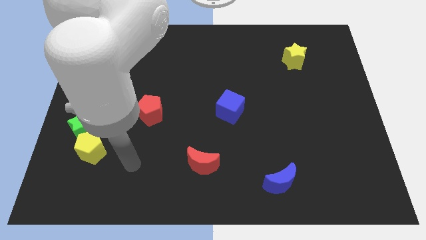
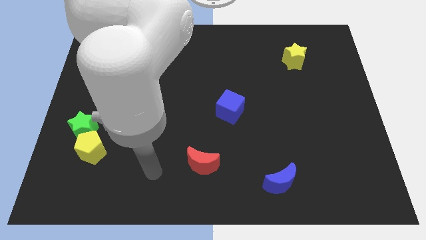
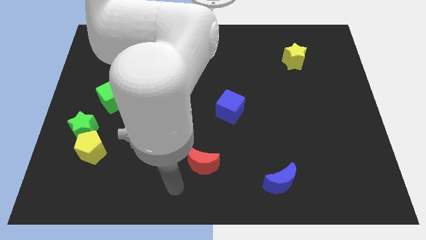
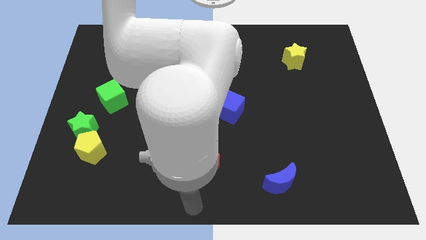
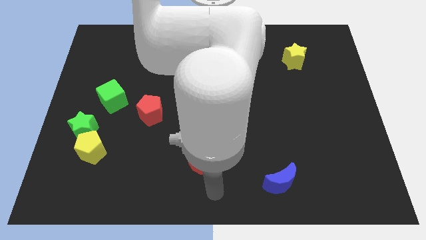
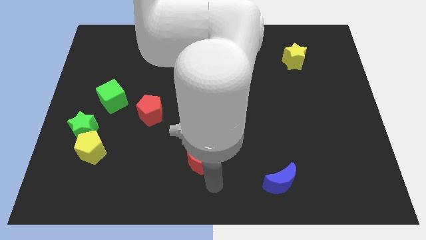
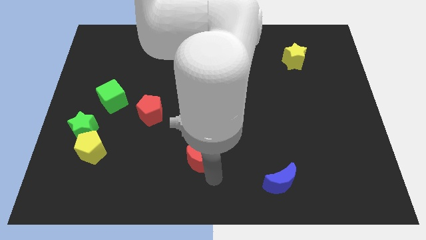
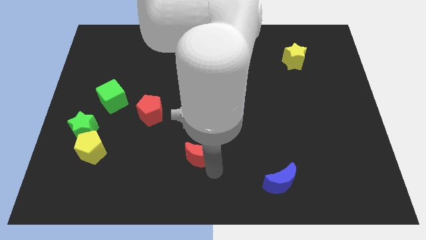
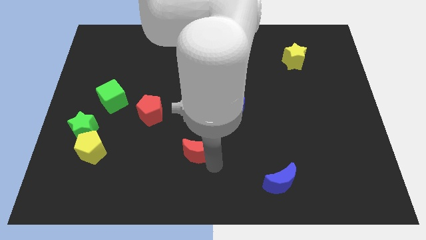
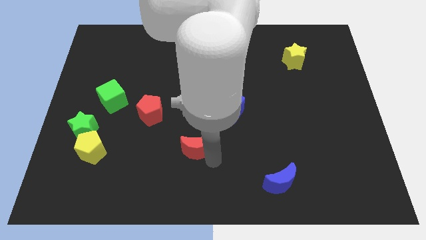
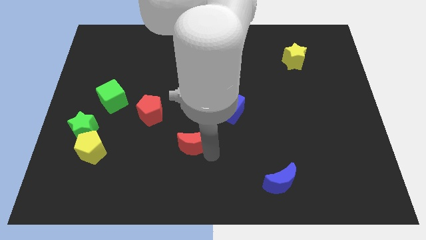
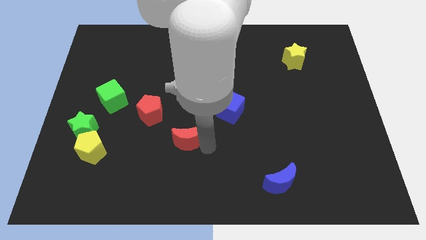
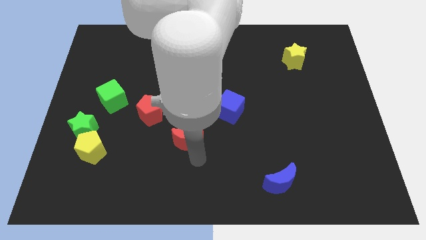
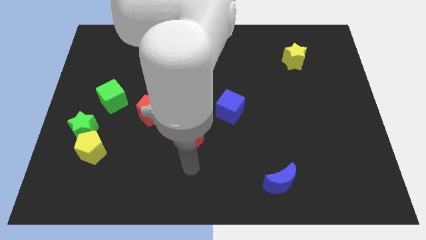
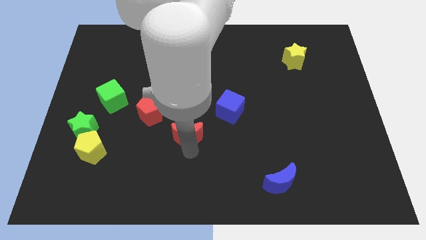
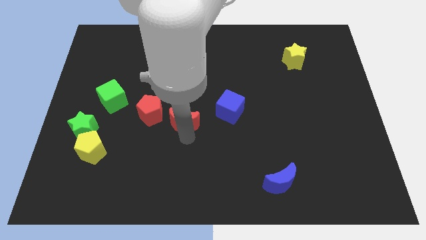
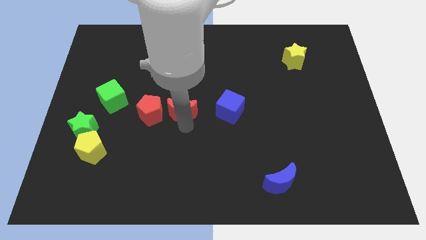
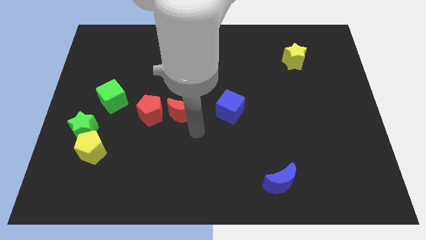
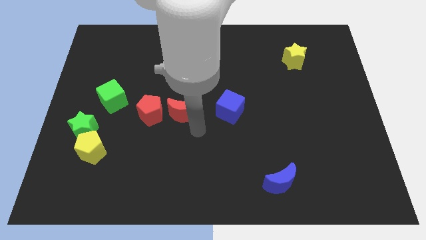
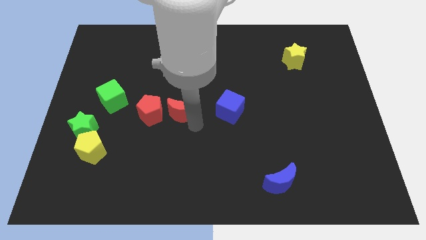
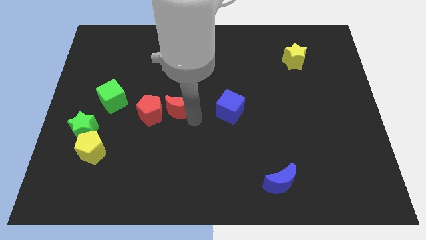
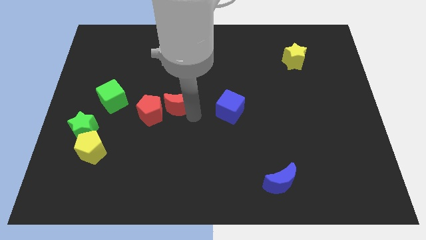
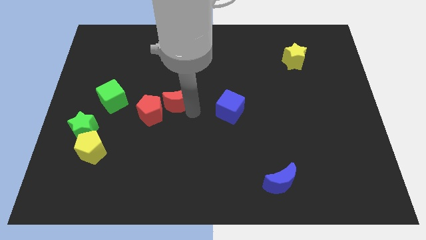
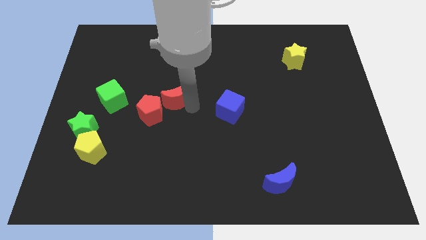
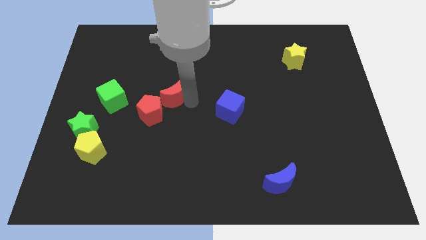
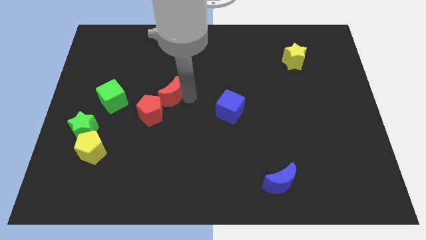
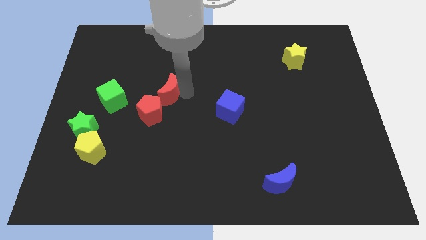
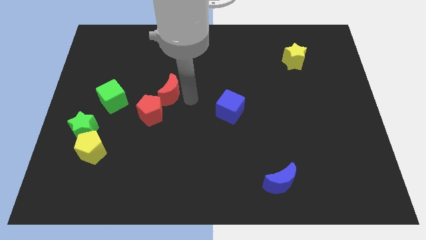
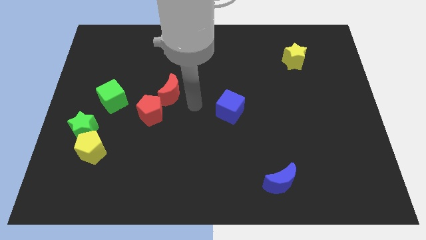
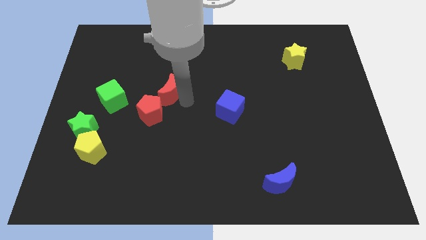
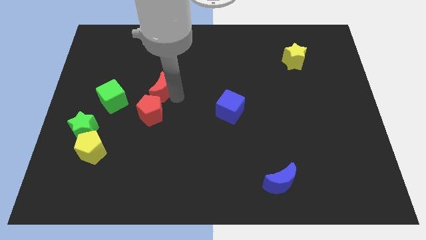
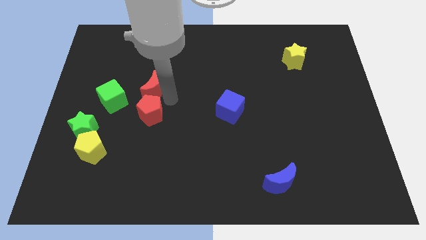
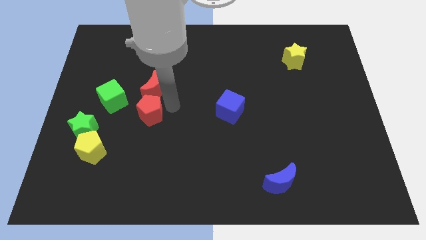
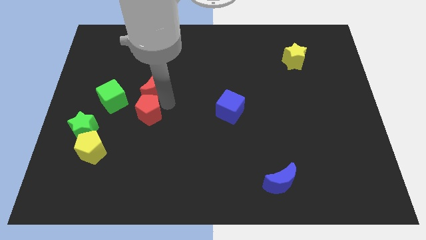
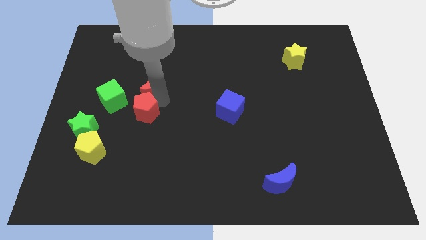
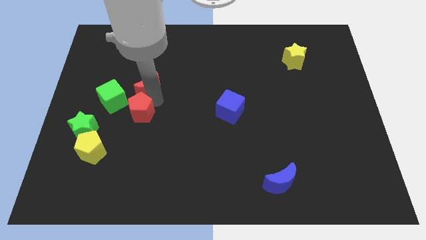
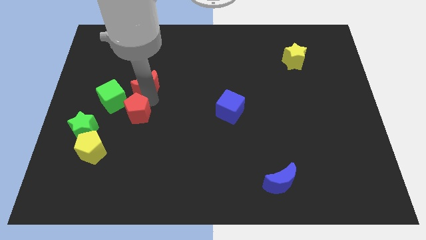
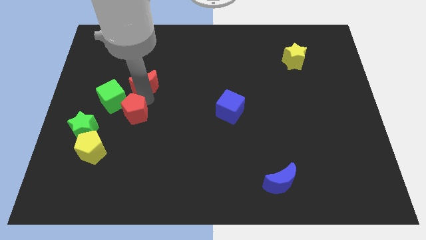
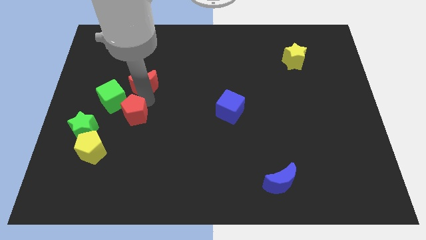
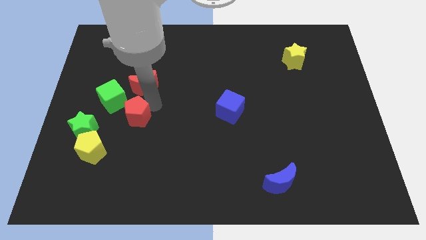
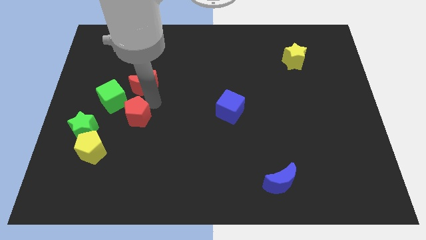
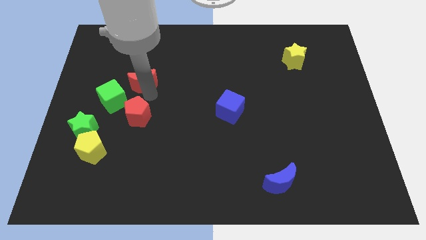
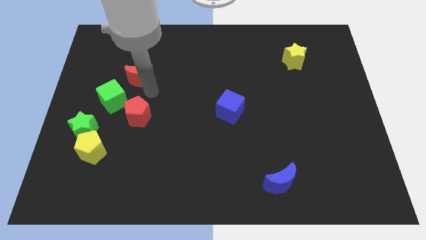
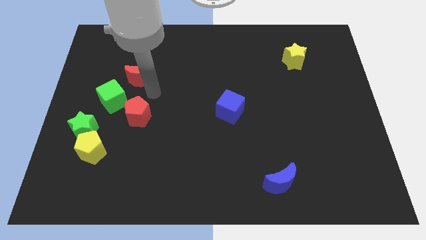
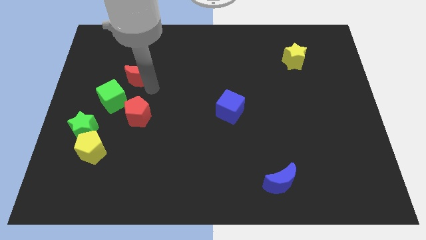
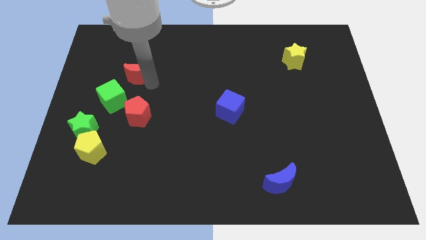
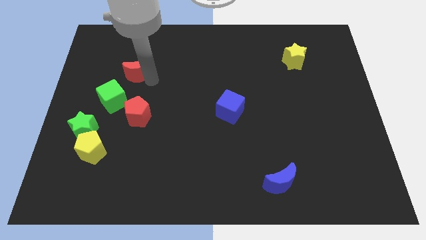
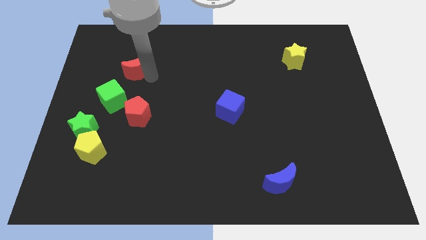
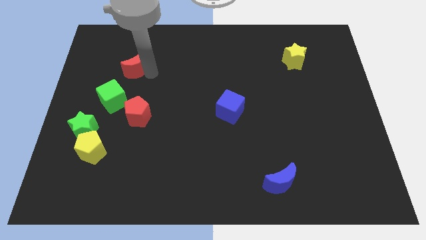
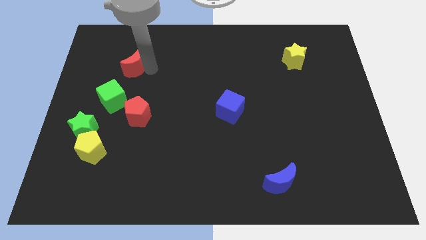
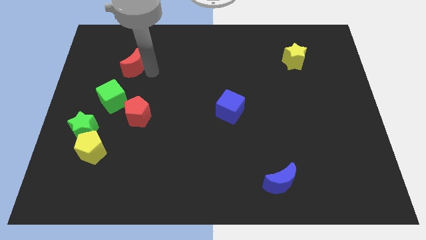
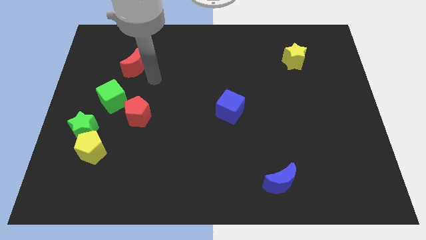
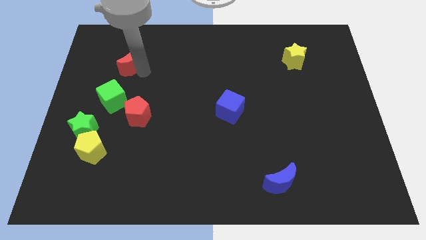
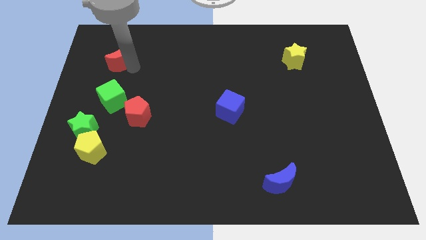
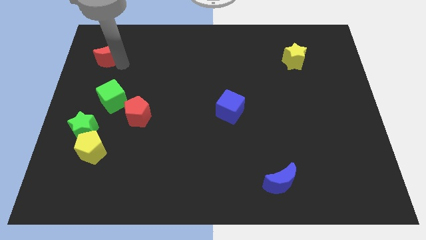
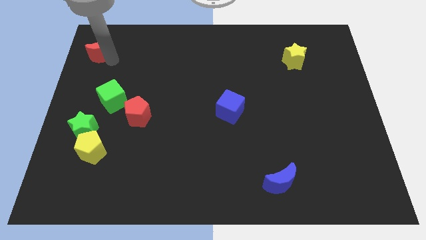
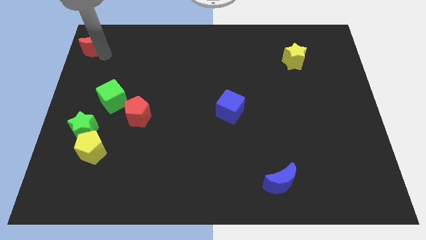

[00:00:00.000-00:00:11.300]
push the red moon to the upper left corner

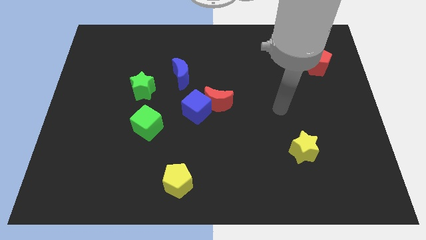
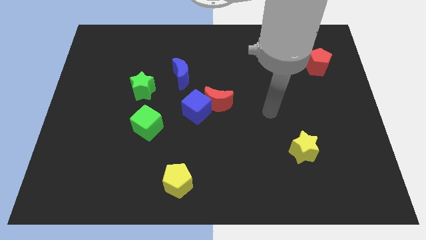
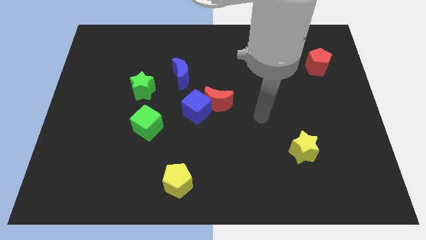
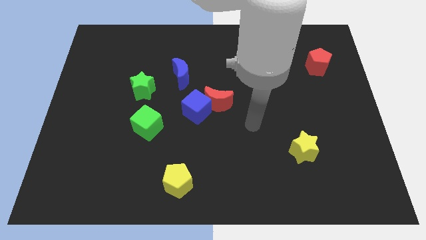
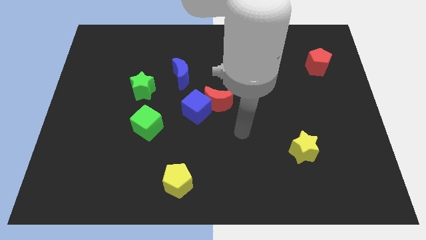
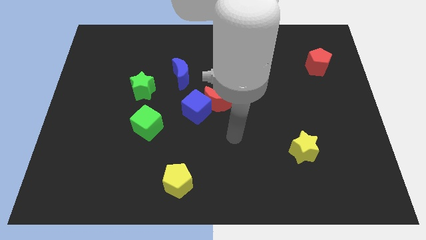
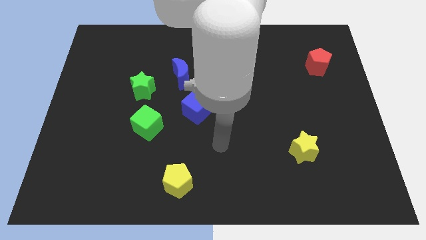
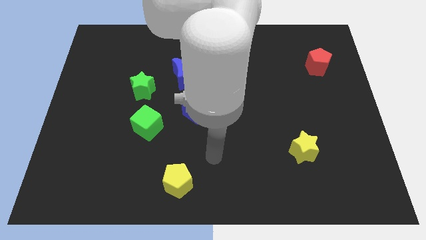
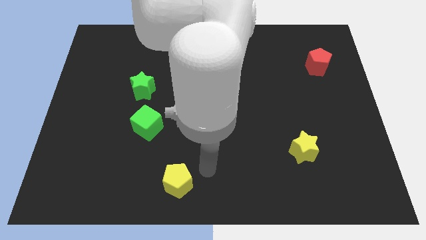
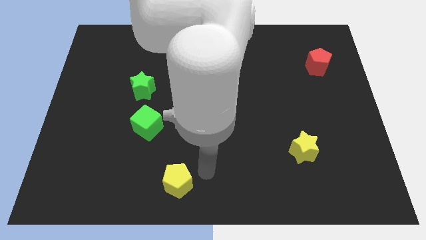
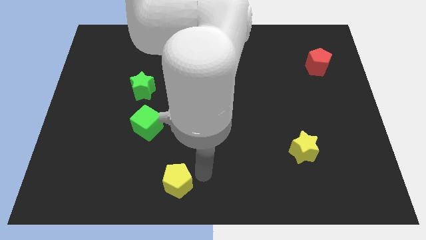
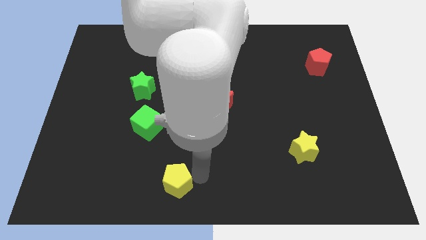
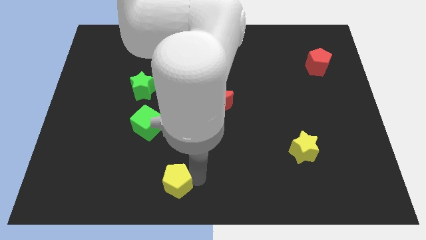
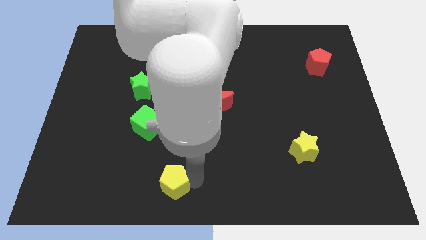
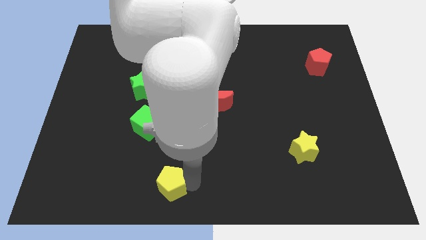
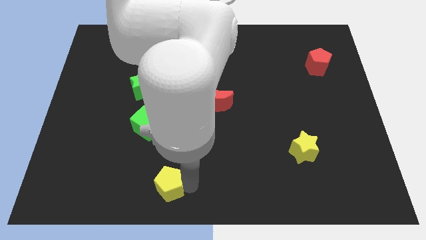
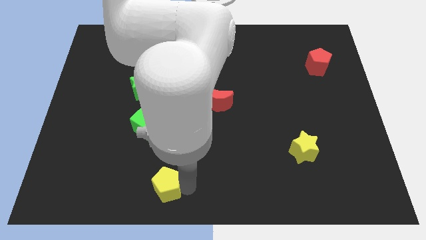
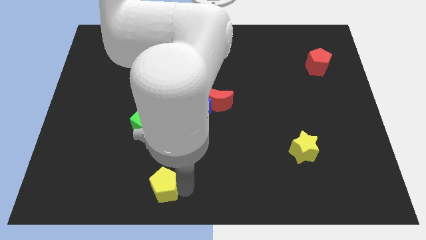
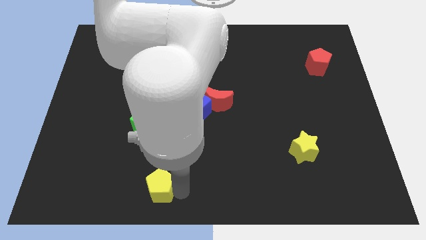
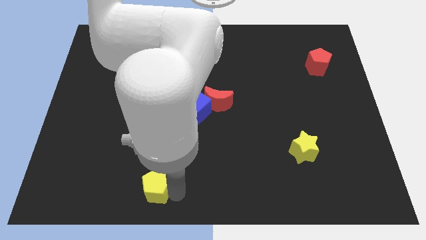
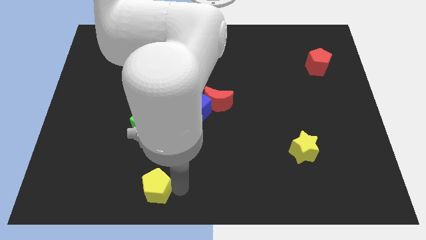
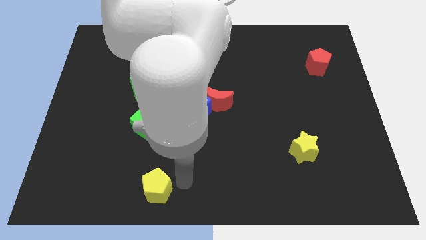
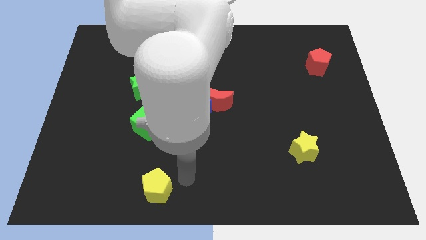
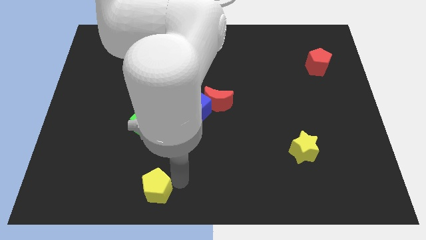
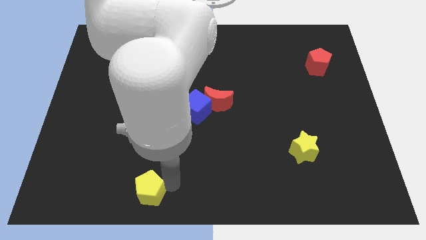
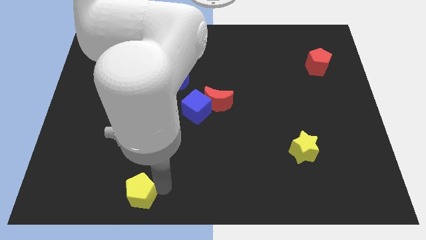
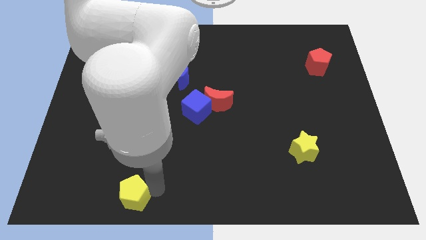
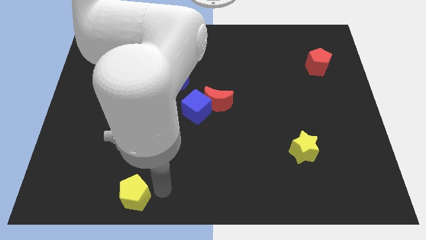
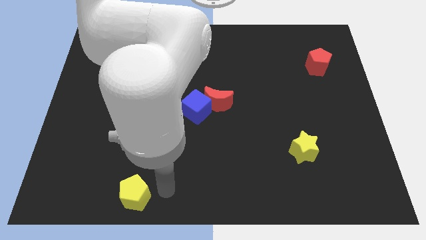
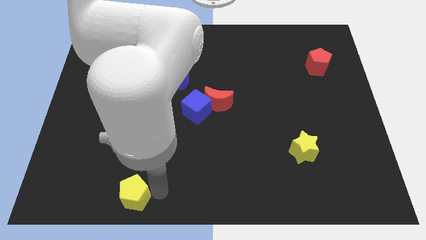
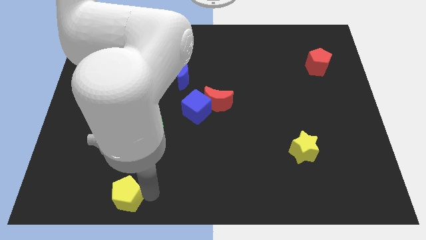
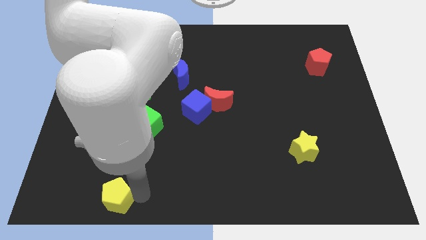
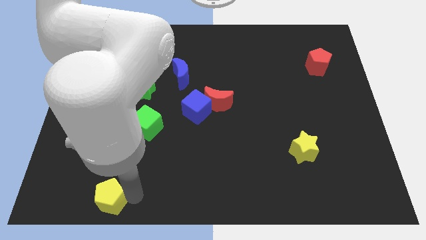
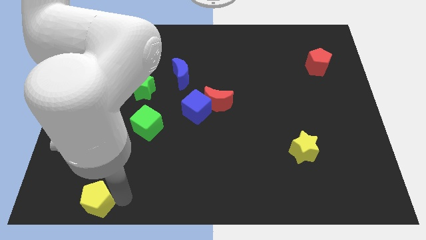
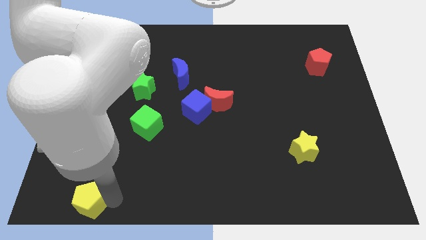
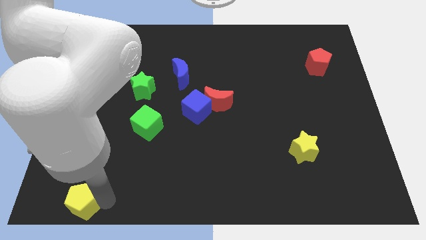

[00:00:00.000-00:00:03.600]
push the yellow pentagon to the bottom left of the board
